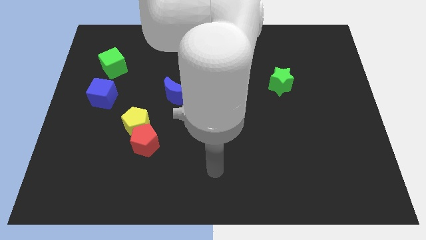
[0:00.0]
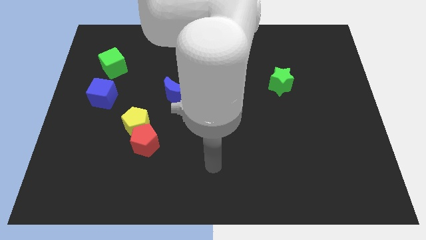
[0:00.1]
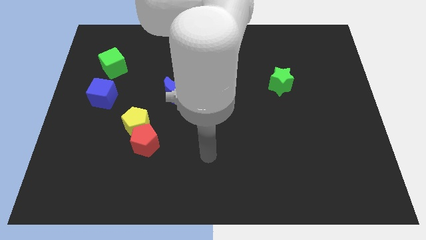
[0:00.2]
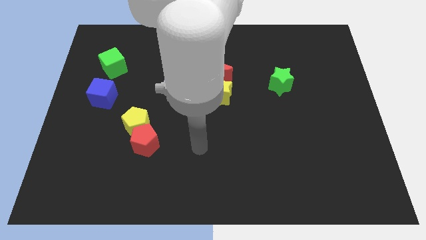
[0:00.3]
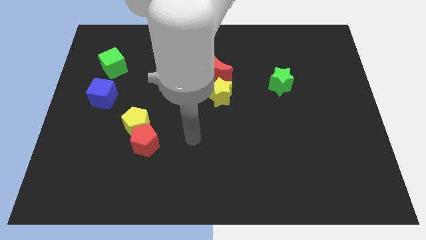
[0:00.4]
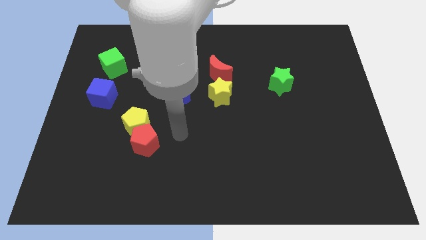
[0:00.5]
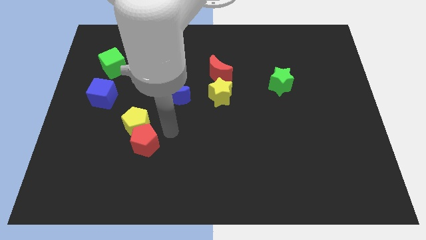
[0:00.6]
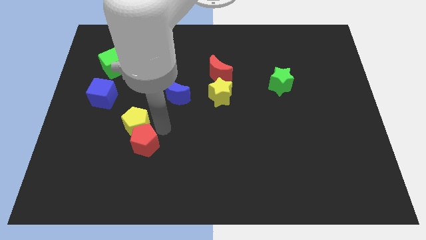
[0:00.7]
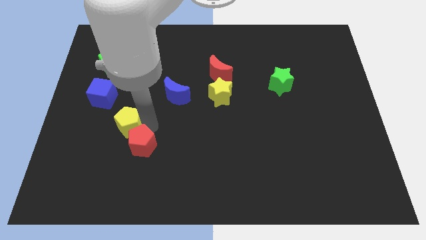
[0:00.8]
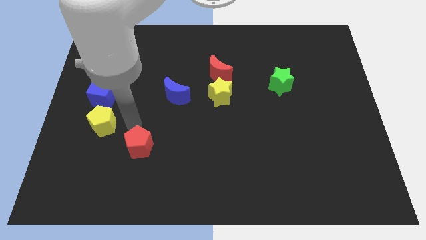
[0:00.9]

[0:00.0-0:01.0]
move the red pentagon away from the yellow pentagon

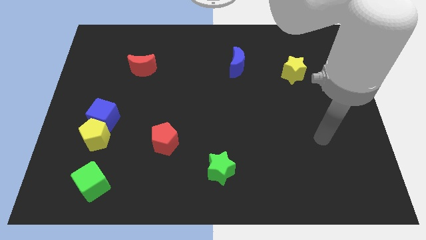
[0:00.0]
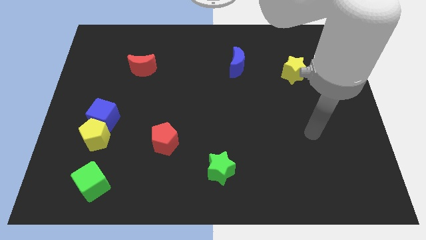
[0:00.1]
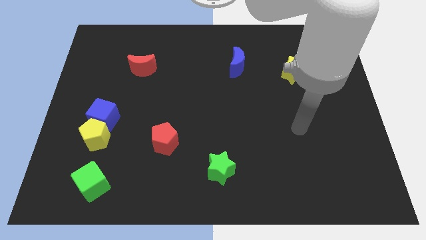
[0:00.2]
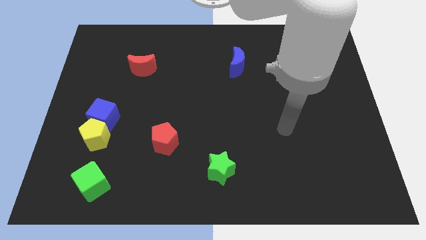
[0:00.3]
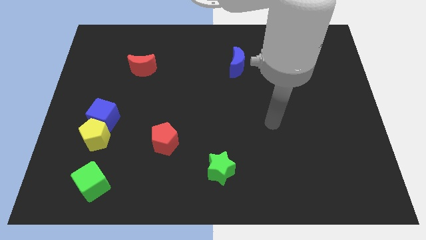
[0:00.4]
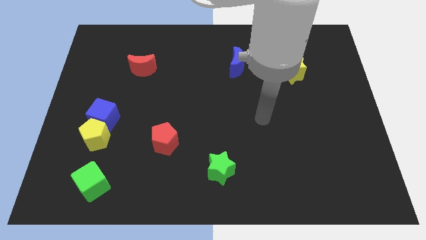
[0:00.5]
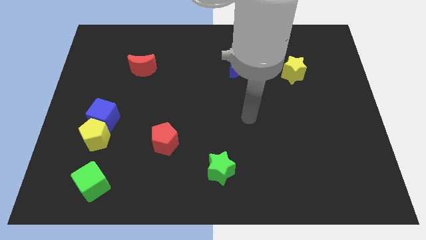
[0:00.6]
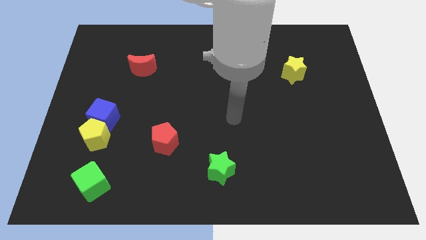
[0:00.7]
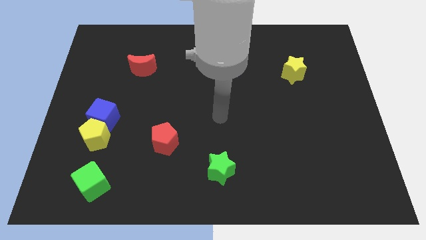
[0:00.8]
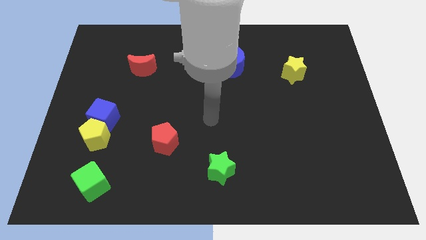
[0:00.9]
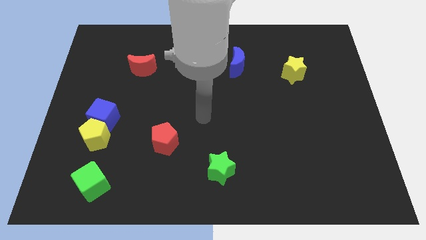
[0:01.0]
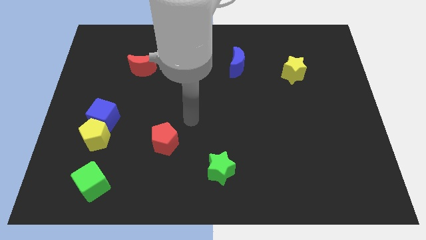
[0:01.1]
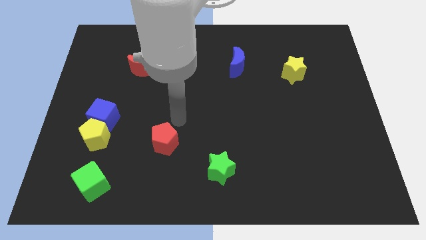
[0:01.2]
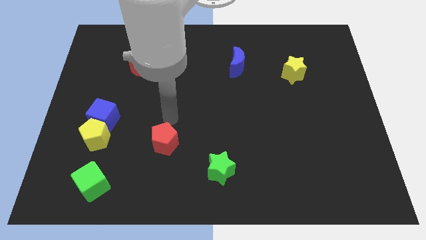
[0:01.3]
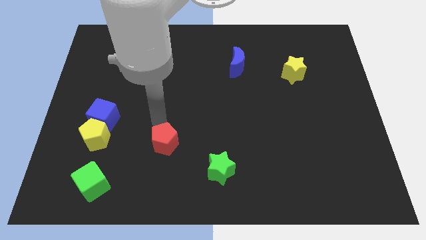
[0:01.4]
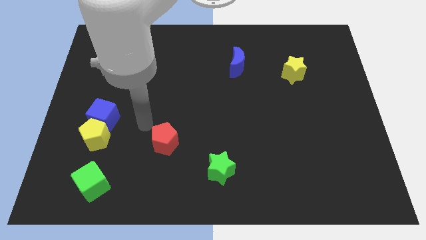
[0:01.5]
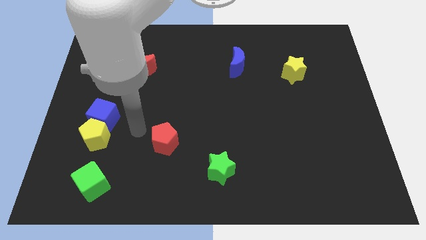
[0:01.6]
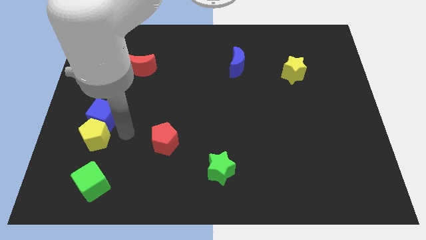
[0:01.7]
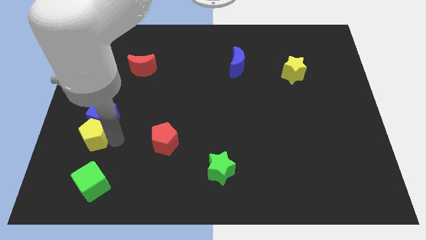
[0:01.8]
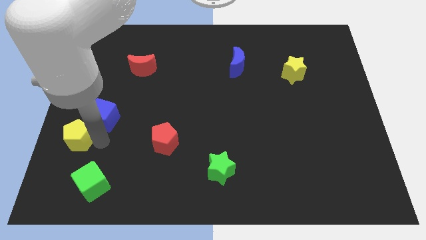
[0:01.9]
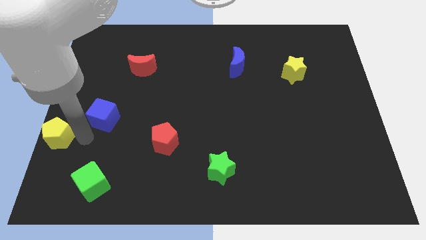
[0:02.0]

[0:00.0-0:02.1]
pull the blue cube apart from the yellow pentagon

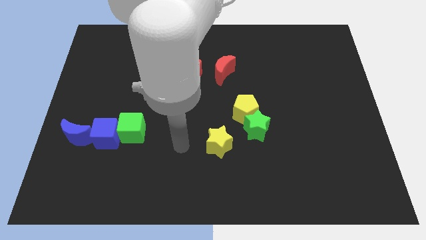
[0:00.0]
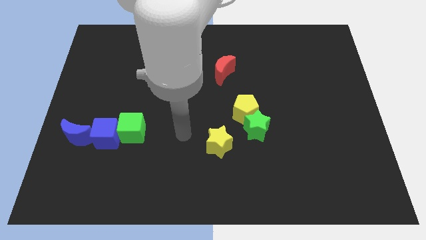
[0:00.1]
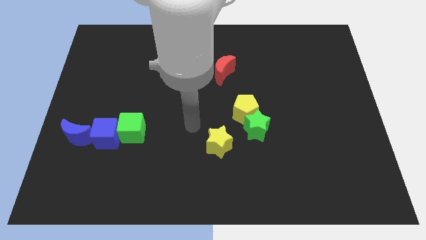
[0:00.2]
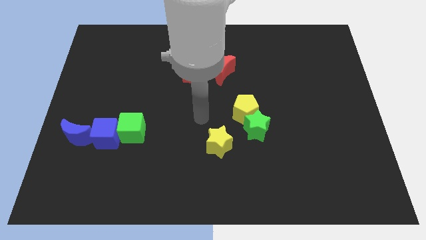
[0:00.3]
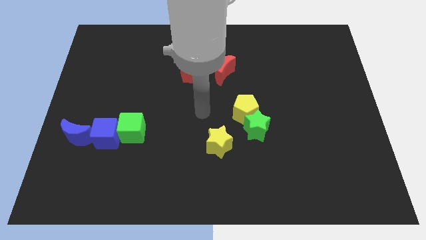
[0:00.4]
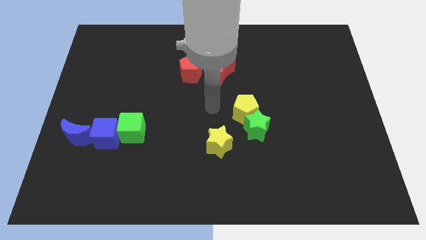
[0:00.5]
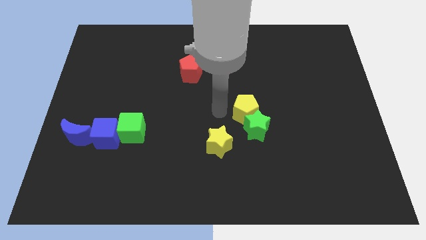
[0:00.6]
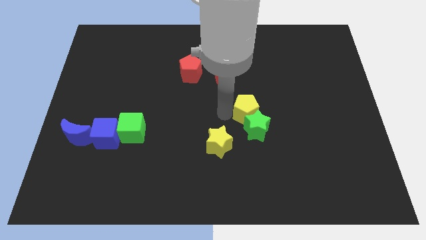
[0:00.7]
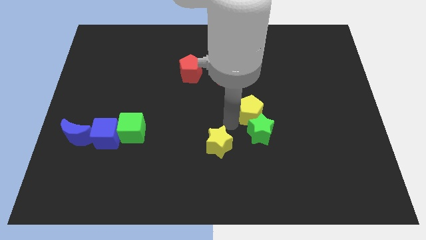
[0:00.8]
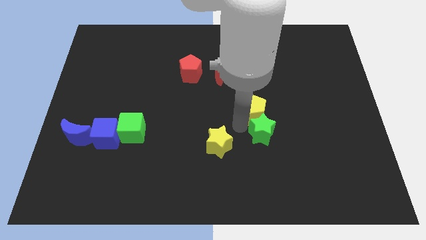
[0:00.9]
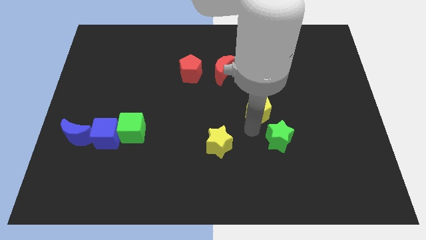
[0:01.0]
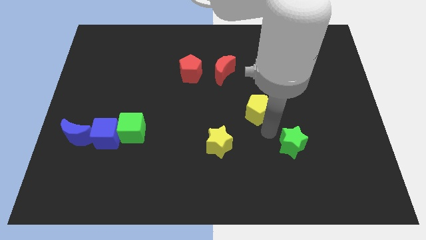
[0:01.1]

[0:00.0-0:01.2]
separate the yellow pentagon from the green star

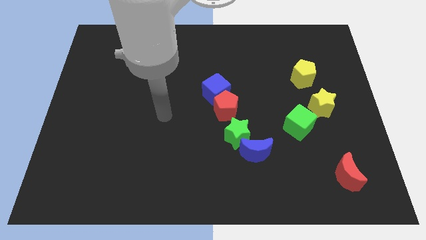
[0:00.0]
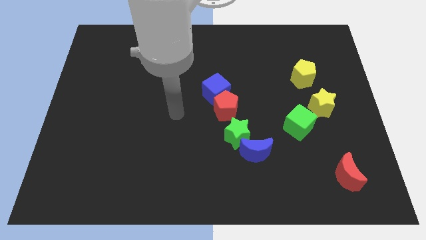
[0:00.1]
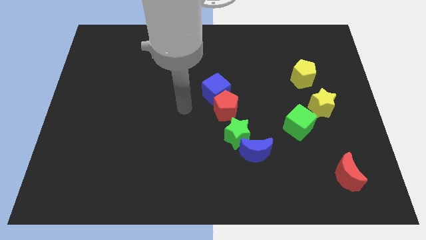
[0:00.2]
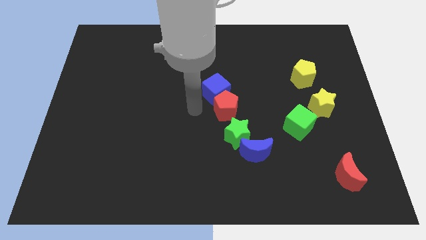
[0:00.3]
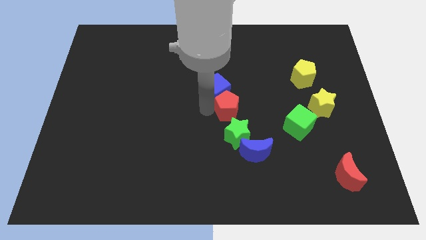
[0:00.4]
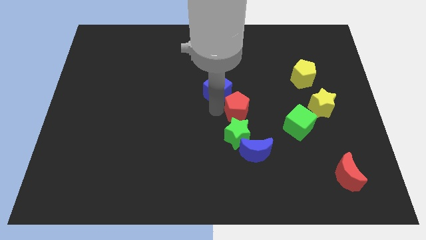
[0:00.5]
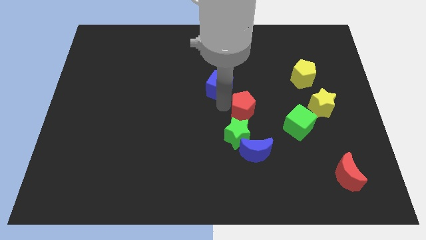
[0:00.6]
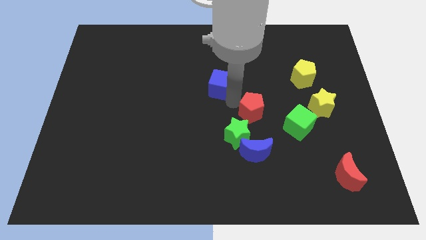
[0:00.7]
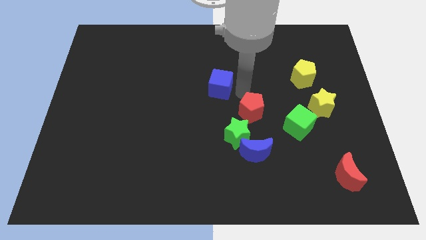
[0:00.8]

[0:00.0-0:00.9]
separate the blue cube from the red pentagon

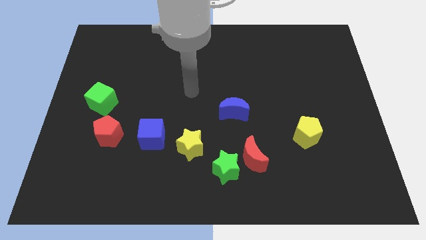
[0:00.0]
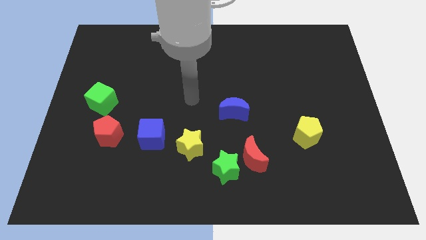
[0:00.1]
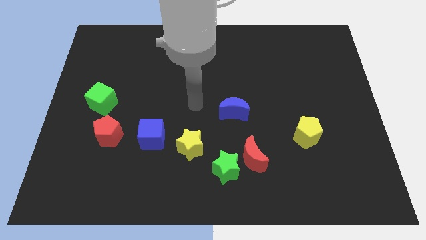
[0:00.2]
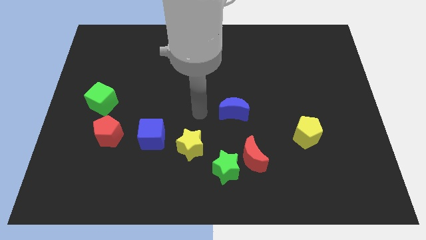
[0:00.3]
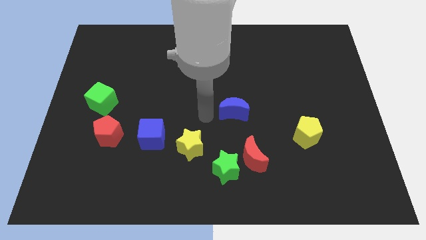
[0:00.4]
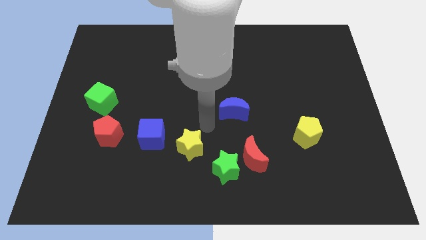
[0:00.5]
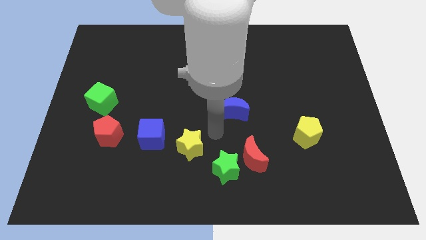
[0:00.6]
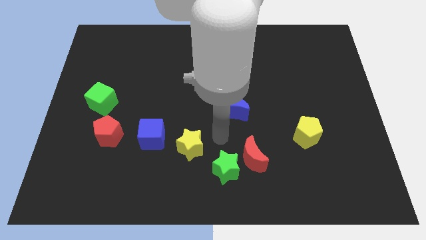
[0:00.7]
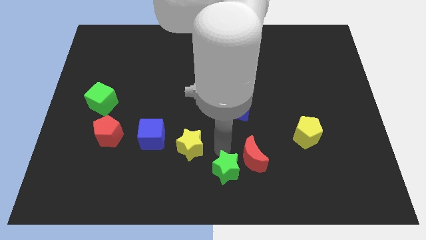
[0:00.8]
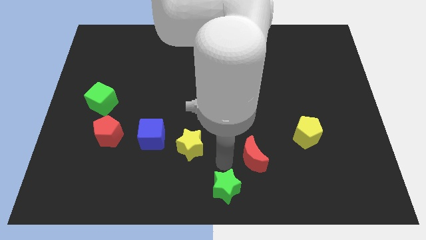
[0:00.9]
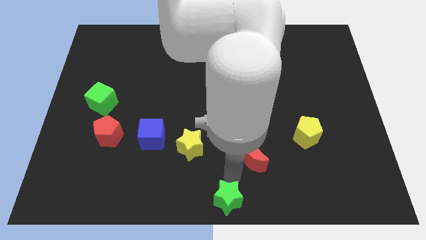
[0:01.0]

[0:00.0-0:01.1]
separate the red moon from the green star

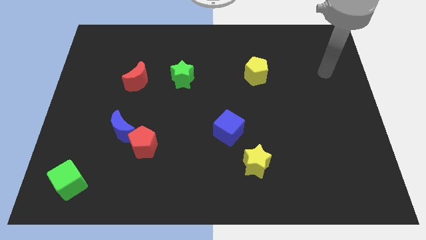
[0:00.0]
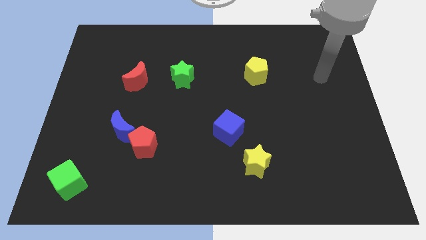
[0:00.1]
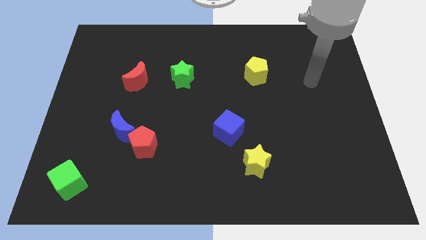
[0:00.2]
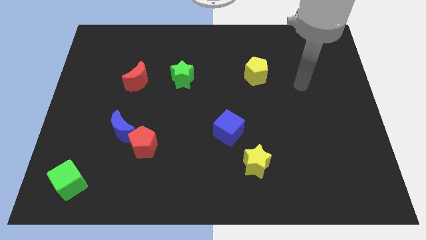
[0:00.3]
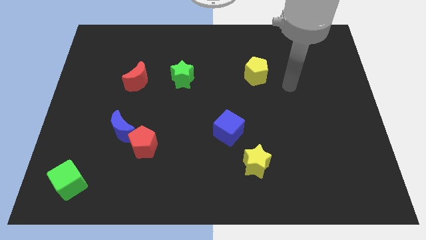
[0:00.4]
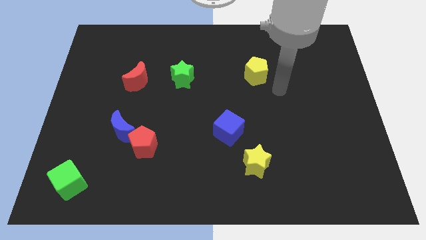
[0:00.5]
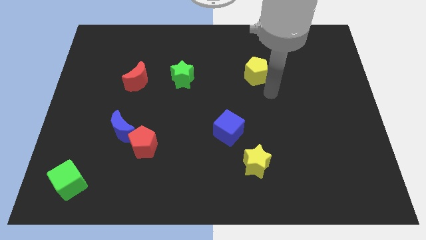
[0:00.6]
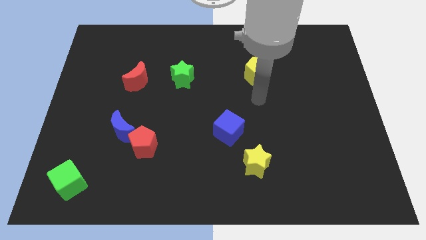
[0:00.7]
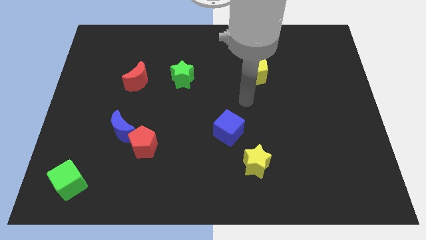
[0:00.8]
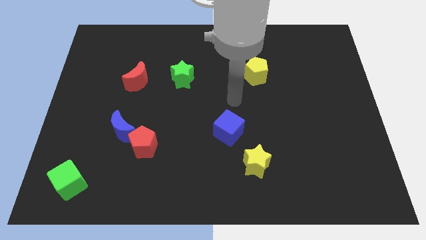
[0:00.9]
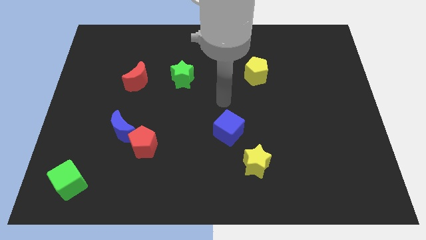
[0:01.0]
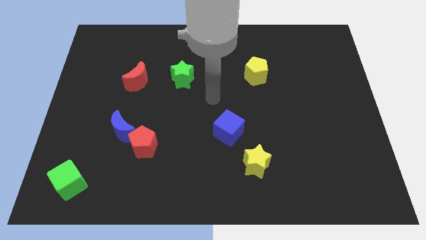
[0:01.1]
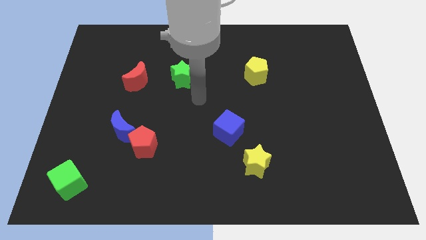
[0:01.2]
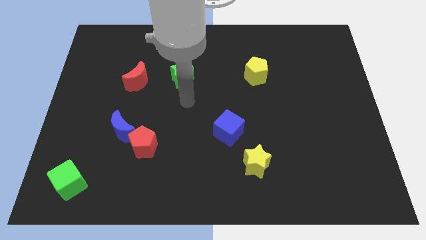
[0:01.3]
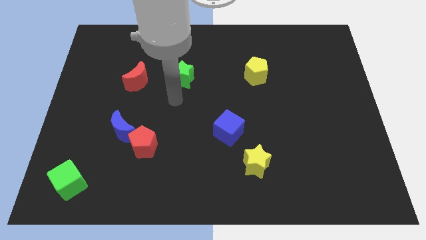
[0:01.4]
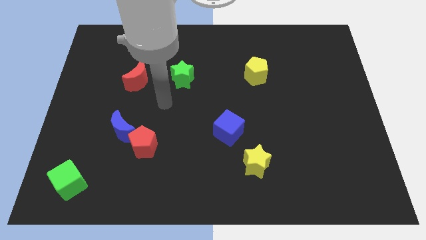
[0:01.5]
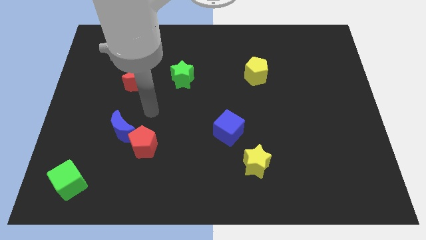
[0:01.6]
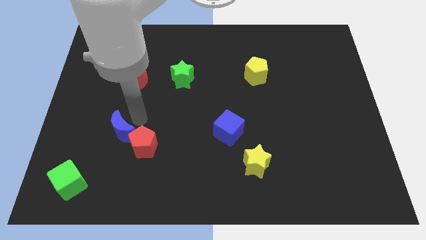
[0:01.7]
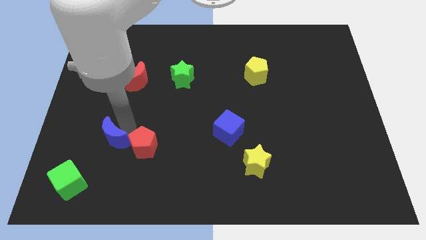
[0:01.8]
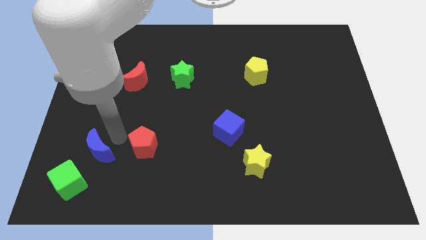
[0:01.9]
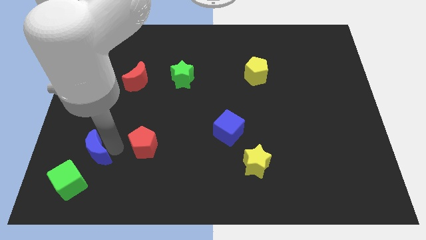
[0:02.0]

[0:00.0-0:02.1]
pull the red pentagon apart from the blue moon

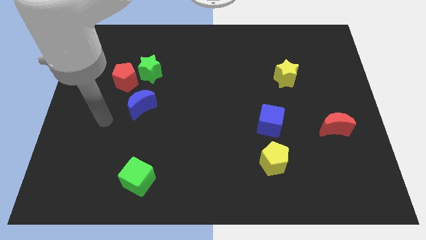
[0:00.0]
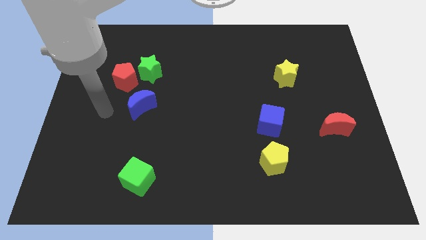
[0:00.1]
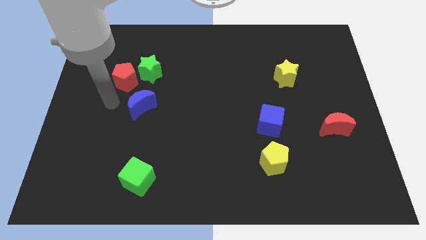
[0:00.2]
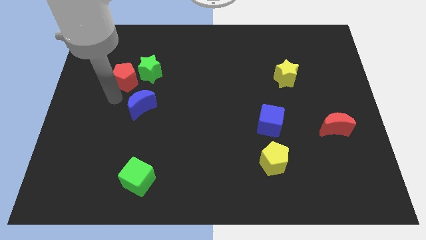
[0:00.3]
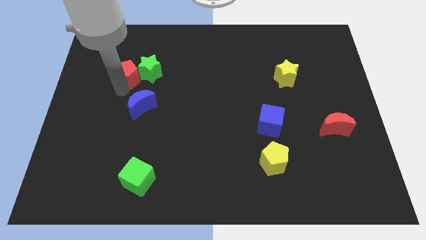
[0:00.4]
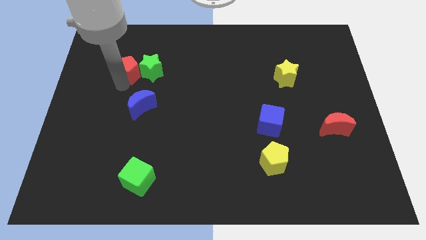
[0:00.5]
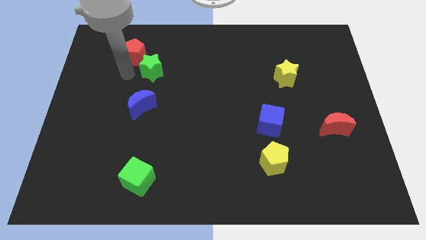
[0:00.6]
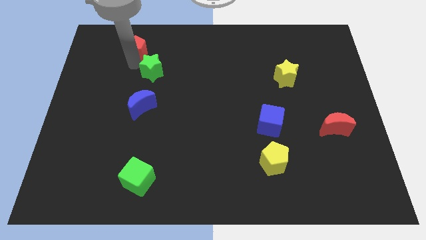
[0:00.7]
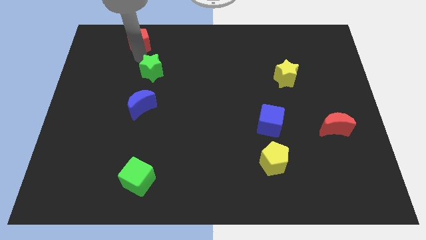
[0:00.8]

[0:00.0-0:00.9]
move the green star away from the red pentagon
